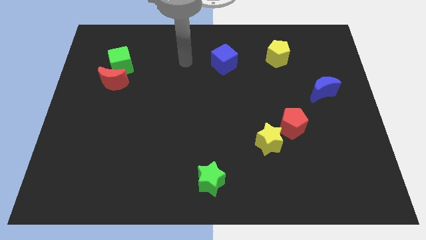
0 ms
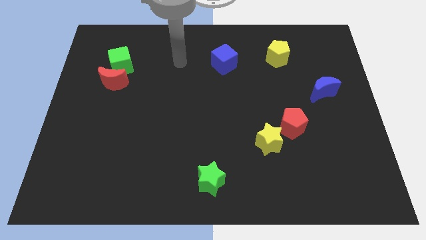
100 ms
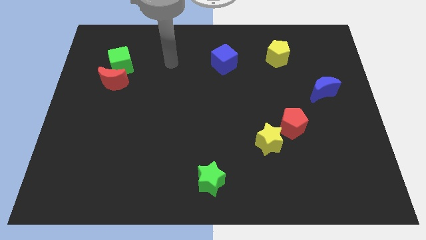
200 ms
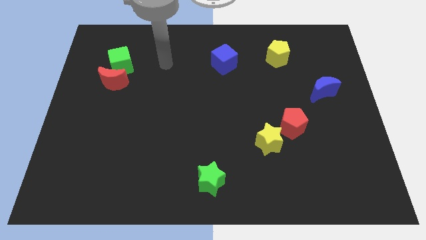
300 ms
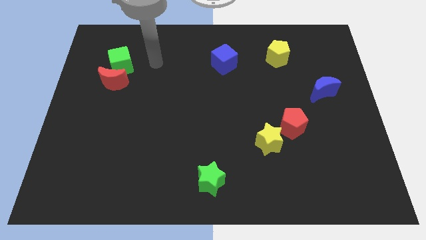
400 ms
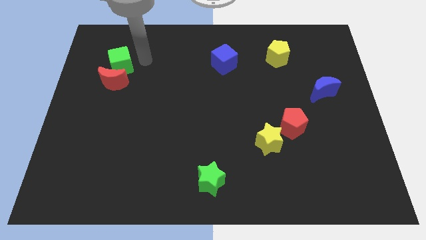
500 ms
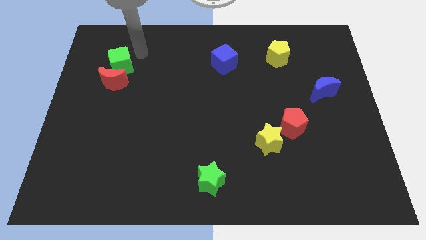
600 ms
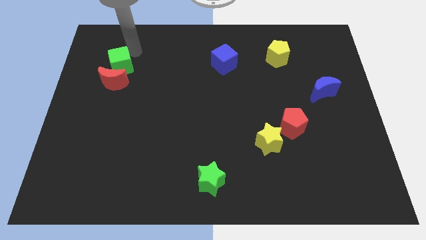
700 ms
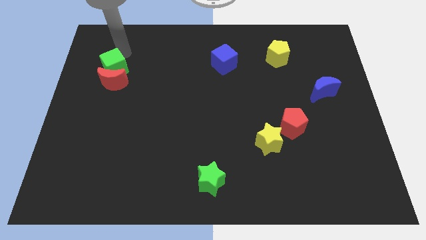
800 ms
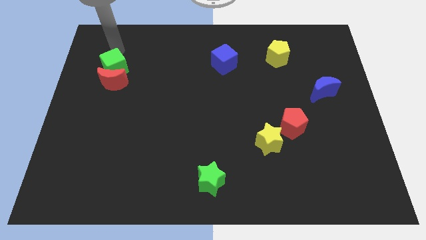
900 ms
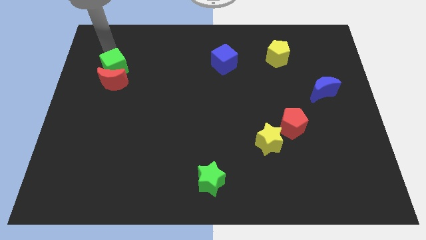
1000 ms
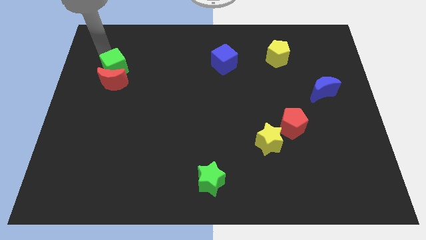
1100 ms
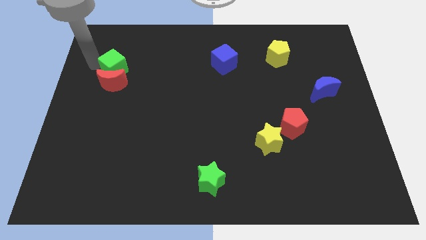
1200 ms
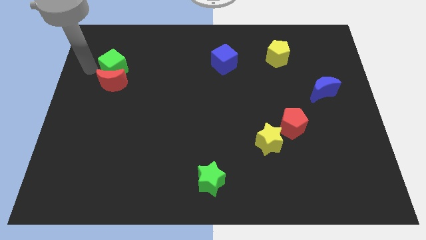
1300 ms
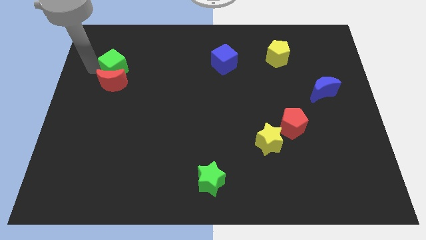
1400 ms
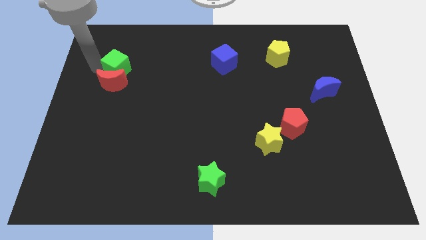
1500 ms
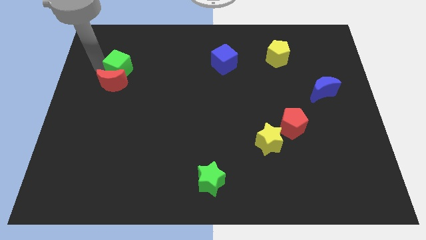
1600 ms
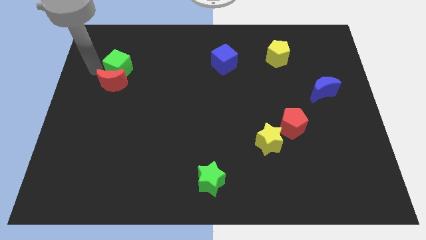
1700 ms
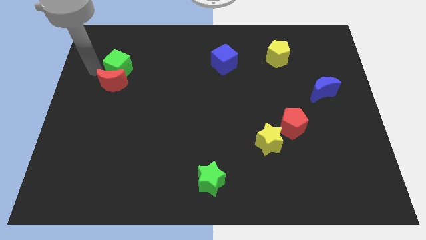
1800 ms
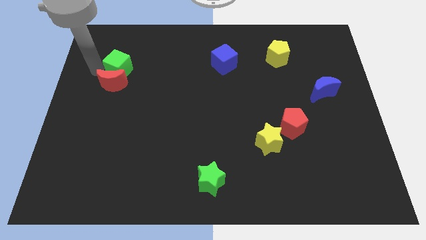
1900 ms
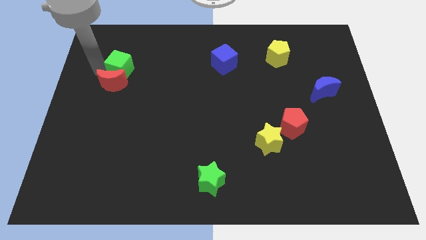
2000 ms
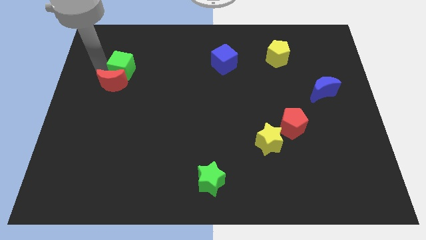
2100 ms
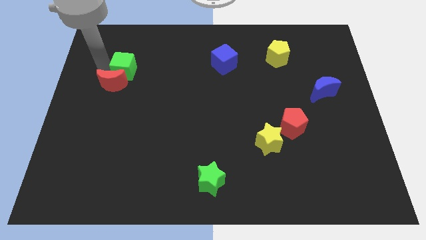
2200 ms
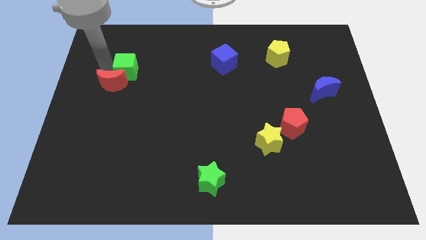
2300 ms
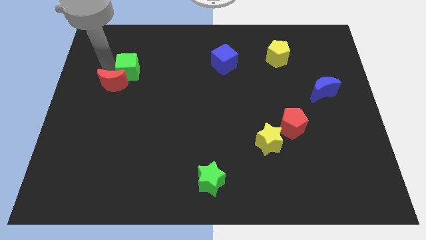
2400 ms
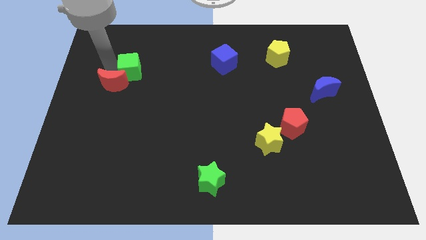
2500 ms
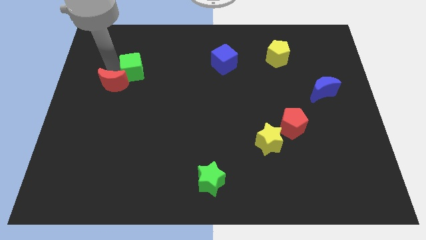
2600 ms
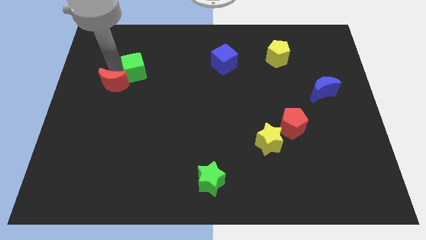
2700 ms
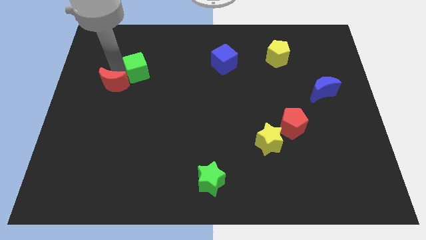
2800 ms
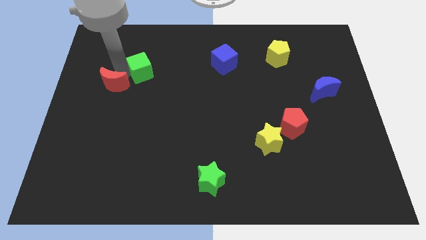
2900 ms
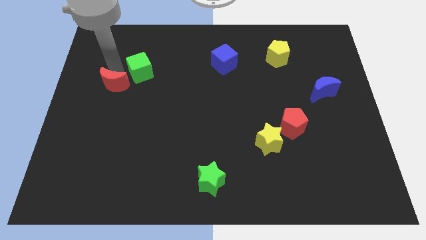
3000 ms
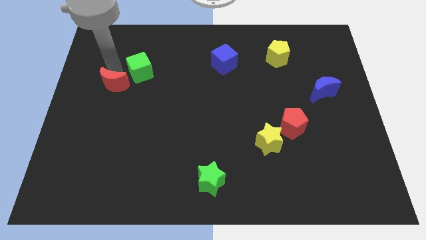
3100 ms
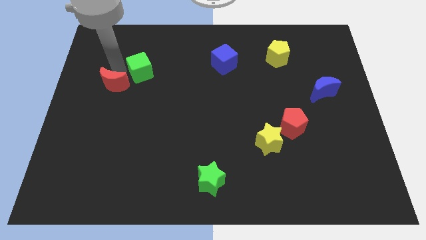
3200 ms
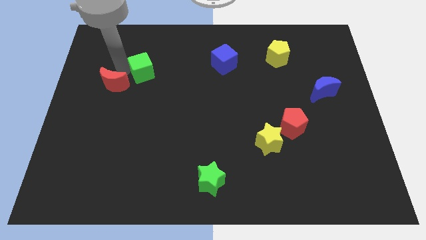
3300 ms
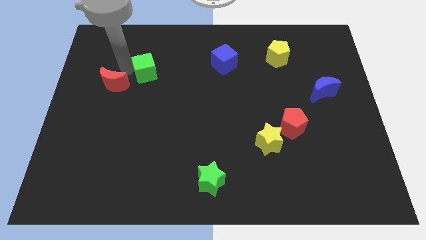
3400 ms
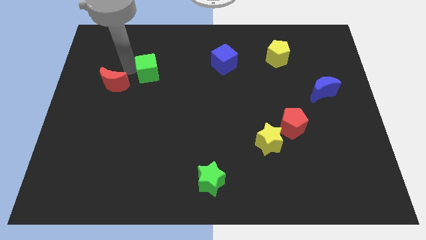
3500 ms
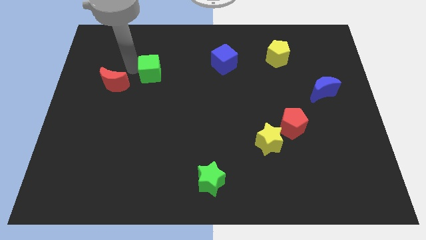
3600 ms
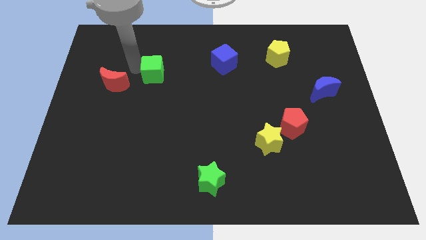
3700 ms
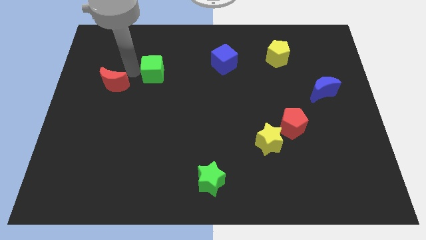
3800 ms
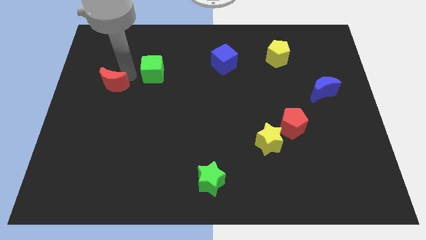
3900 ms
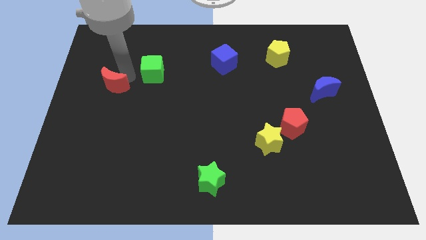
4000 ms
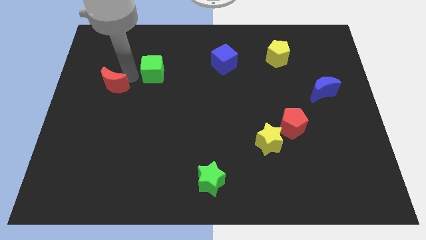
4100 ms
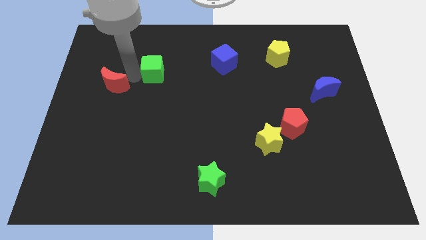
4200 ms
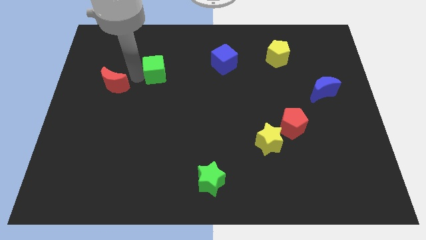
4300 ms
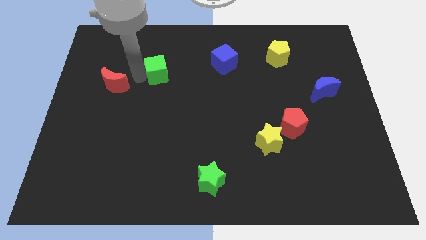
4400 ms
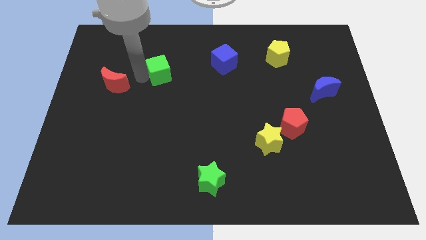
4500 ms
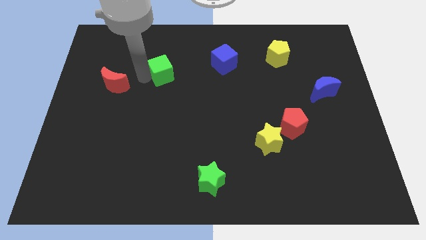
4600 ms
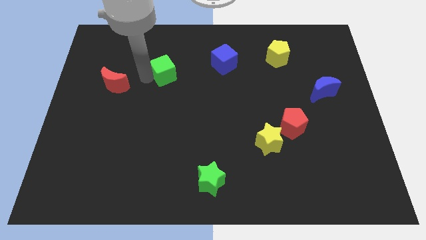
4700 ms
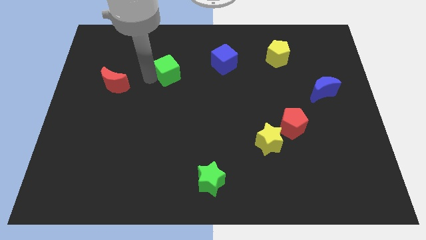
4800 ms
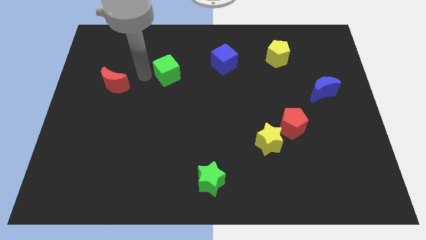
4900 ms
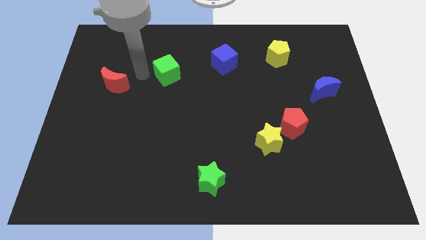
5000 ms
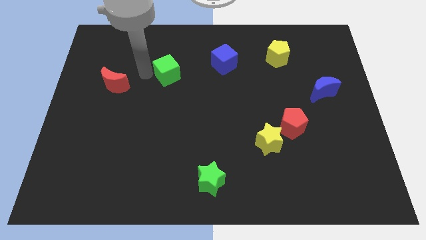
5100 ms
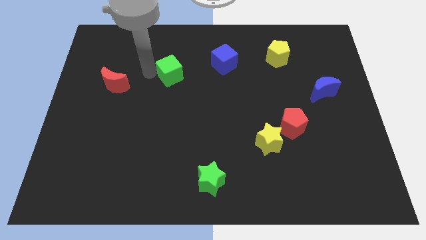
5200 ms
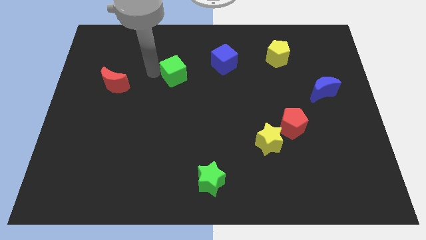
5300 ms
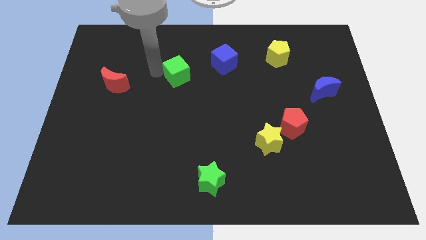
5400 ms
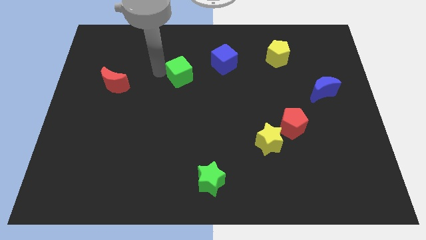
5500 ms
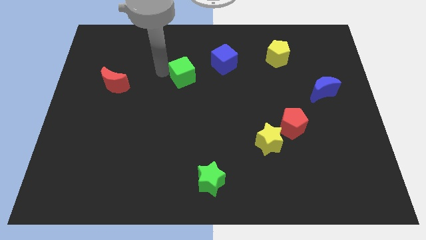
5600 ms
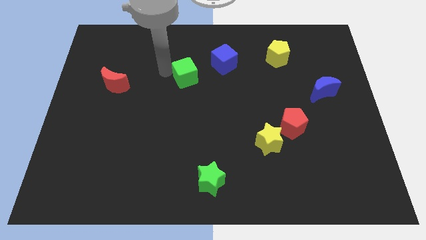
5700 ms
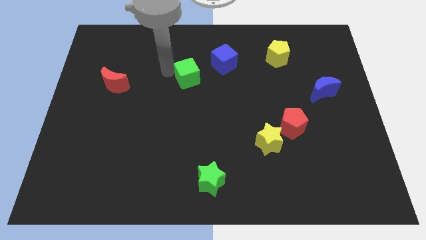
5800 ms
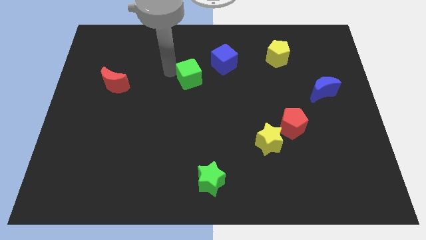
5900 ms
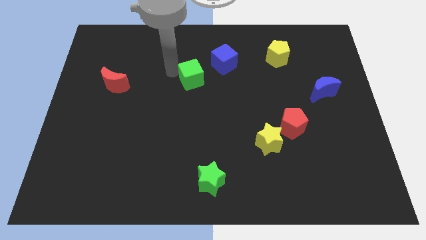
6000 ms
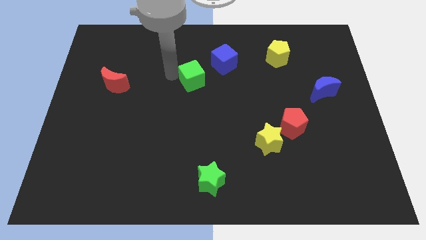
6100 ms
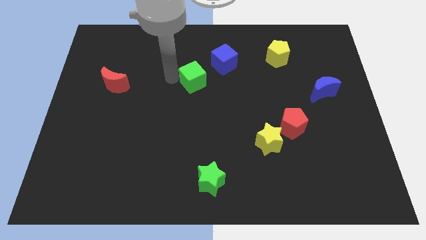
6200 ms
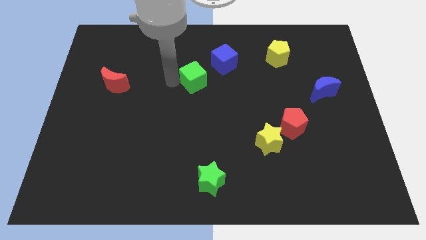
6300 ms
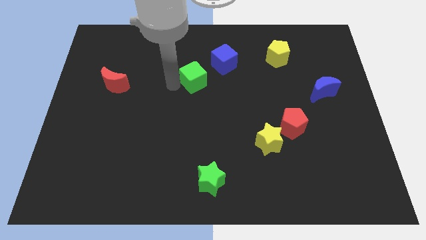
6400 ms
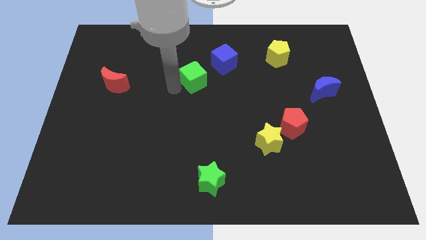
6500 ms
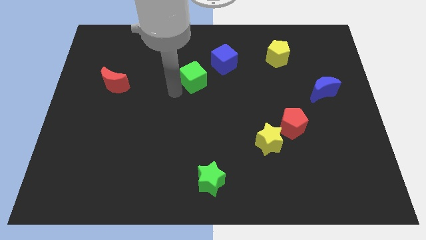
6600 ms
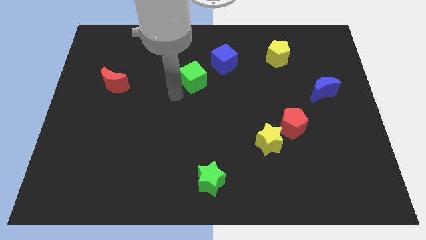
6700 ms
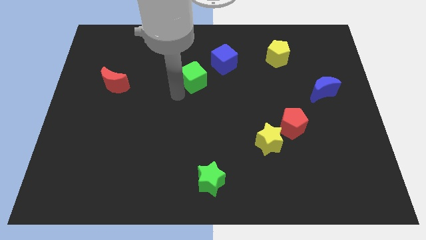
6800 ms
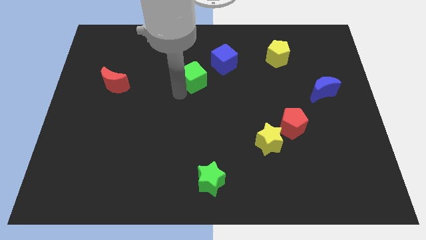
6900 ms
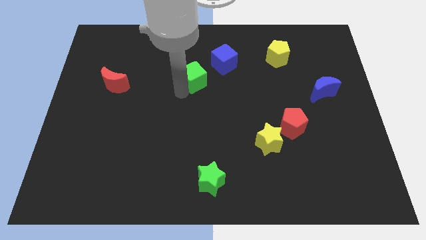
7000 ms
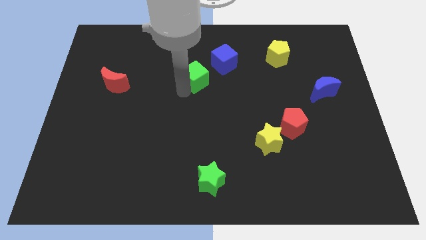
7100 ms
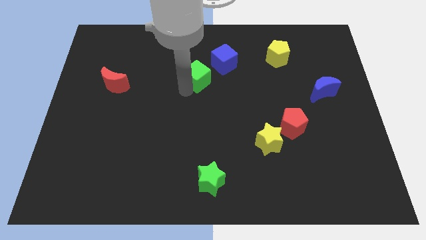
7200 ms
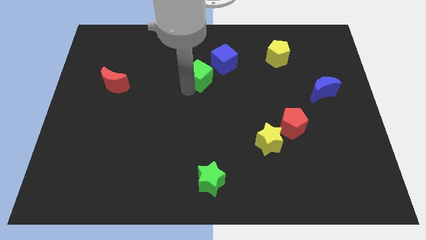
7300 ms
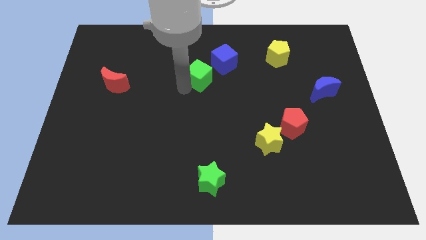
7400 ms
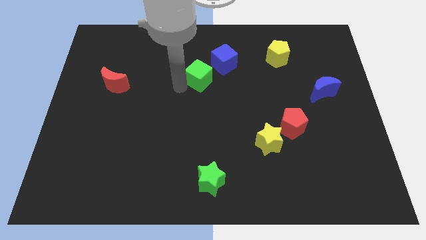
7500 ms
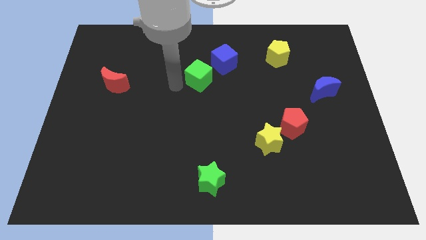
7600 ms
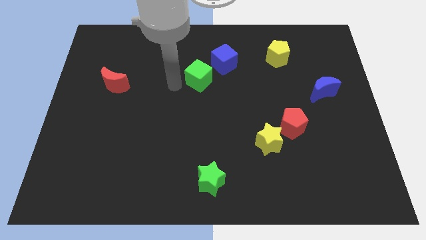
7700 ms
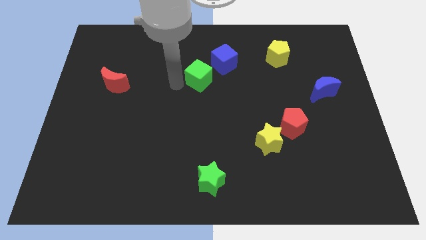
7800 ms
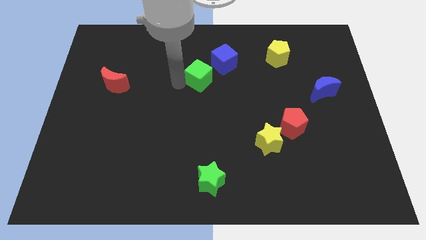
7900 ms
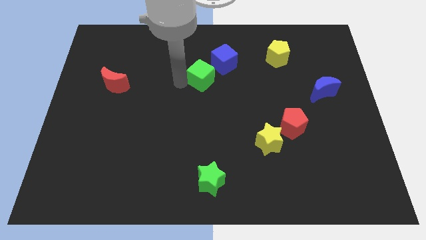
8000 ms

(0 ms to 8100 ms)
move the green cube right
